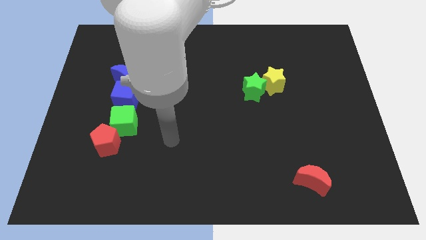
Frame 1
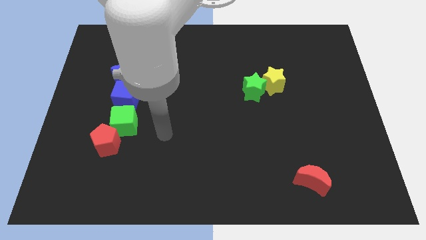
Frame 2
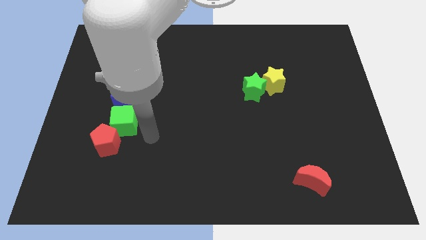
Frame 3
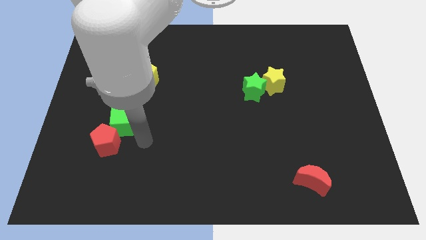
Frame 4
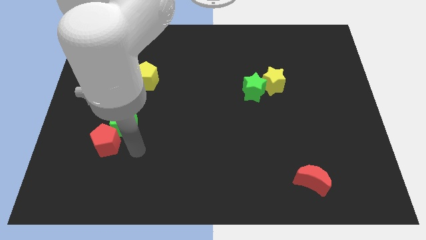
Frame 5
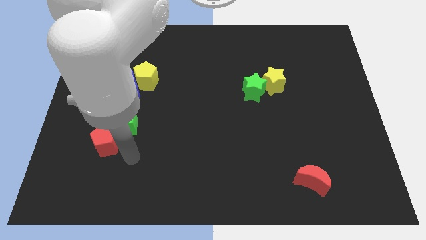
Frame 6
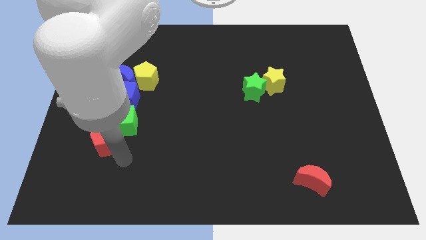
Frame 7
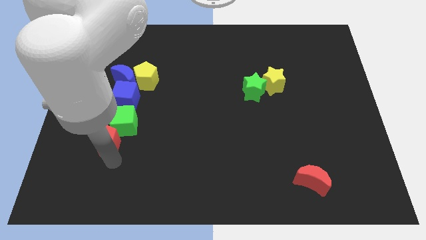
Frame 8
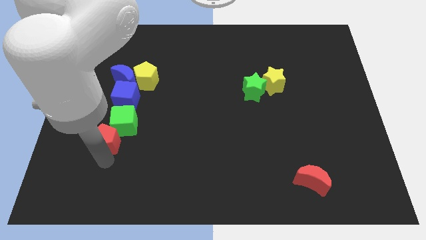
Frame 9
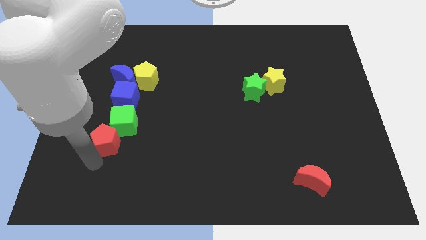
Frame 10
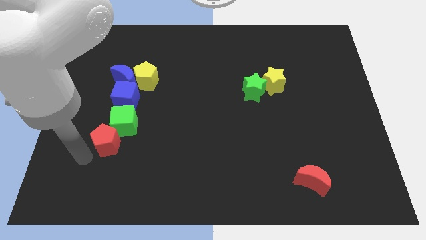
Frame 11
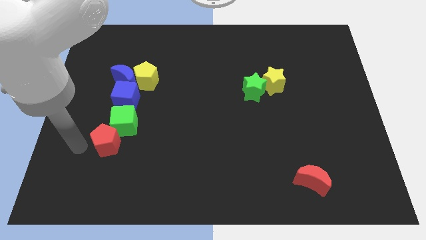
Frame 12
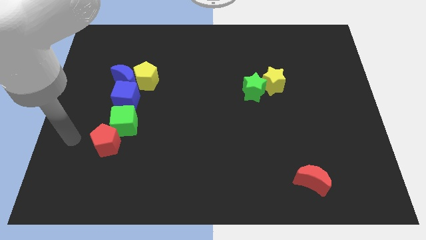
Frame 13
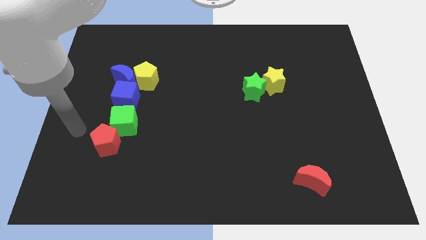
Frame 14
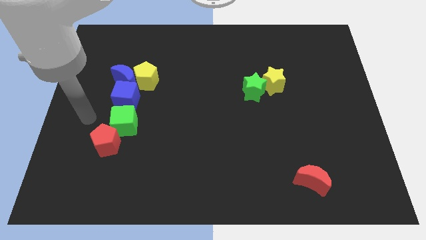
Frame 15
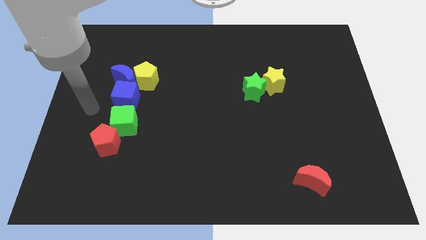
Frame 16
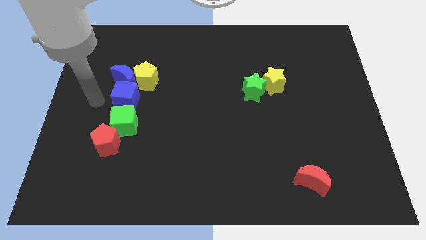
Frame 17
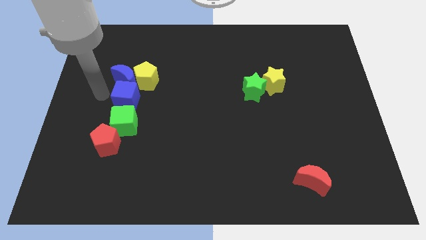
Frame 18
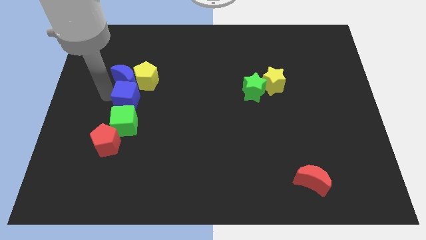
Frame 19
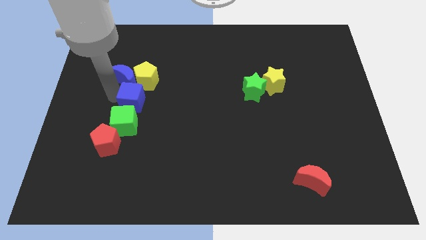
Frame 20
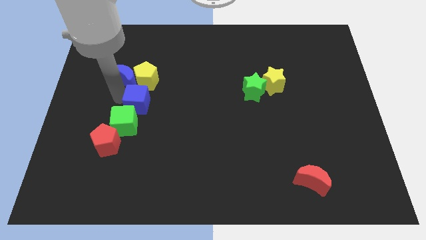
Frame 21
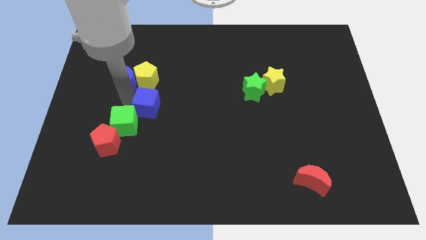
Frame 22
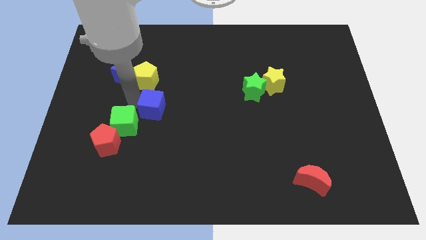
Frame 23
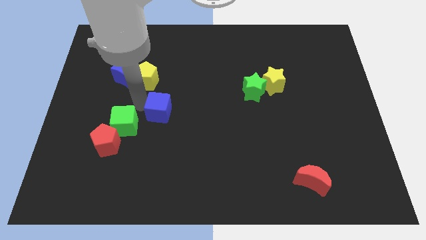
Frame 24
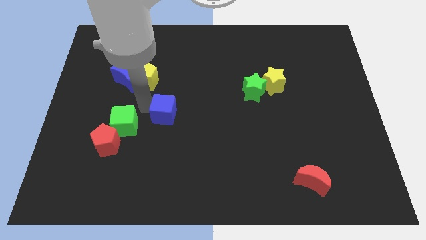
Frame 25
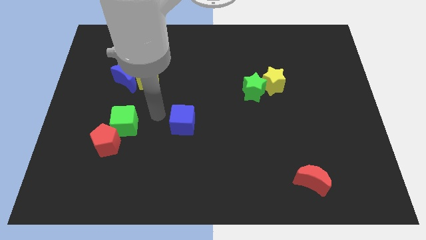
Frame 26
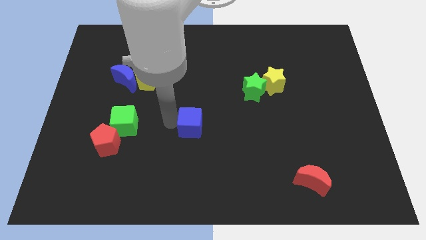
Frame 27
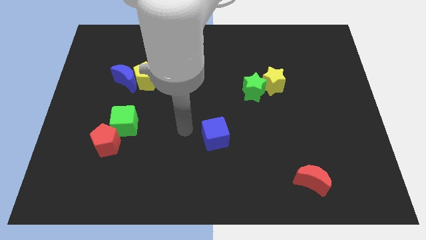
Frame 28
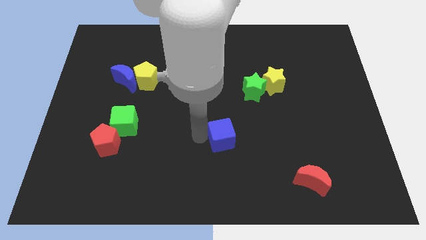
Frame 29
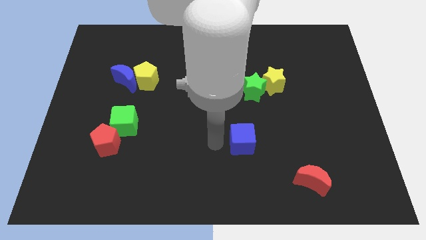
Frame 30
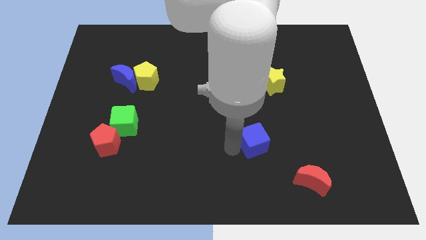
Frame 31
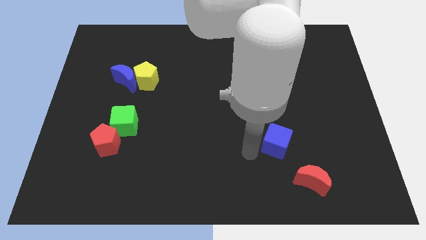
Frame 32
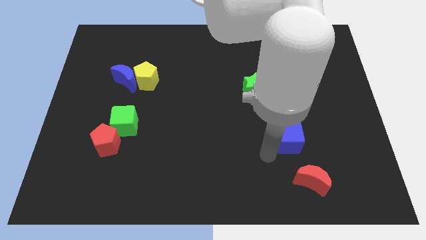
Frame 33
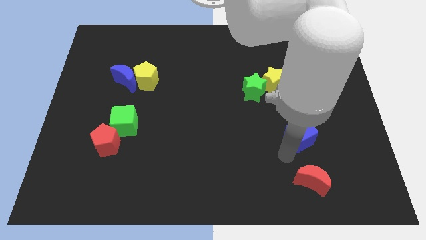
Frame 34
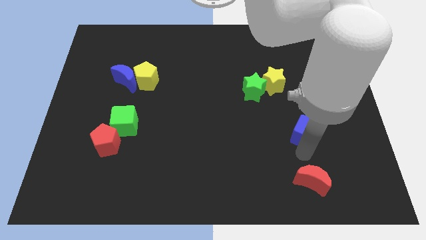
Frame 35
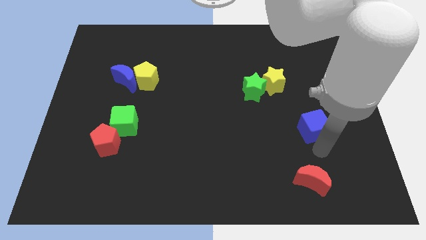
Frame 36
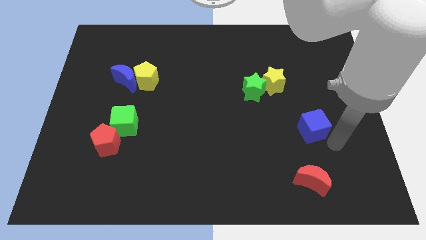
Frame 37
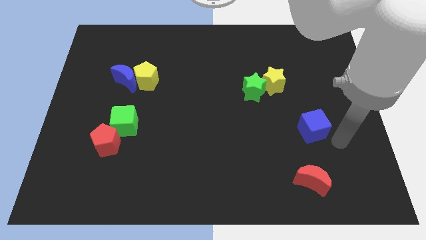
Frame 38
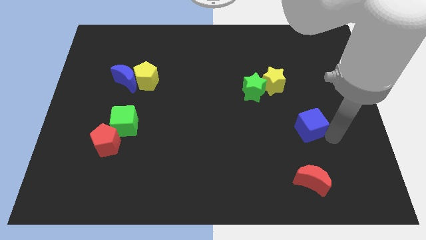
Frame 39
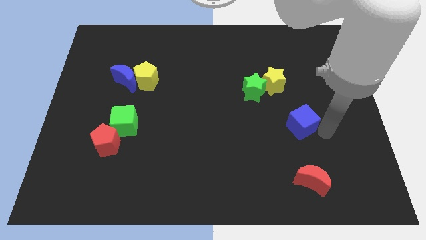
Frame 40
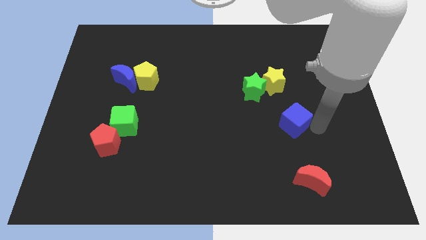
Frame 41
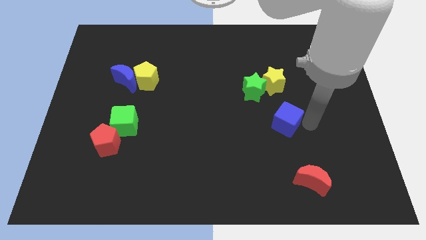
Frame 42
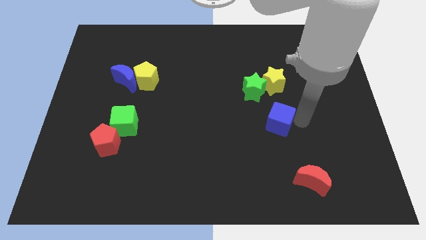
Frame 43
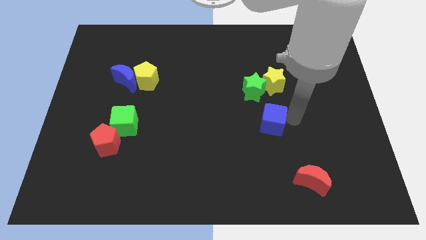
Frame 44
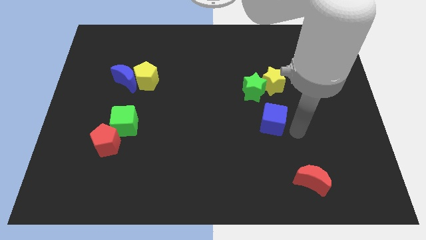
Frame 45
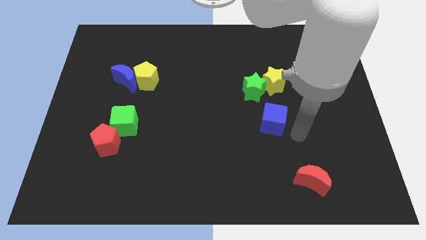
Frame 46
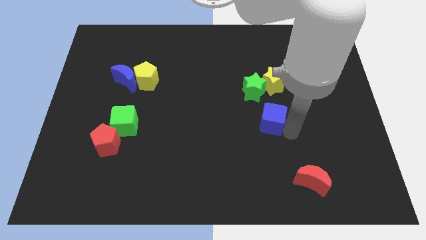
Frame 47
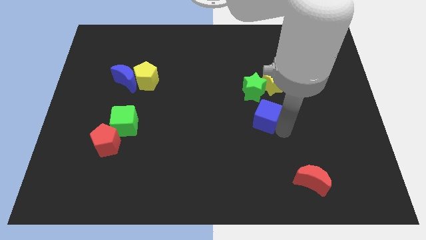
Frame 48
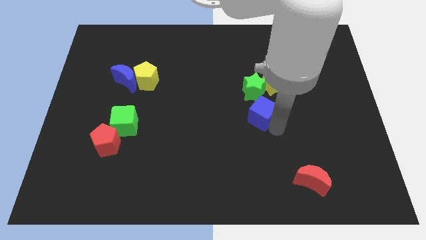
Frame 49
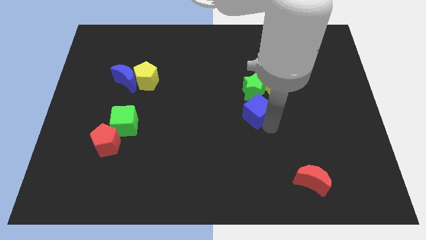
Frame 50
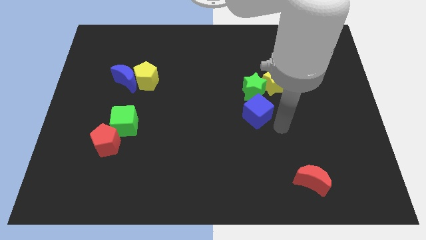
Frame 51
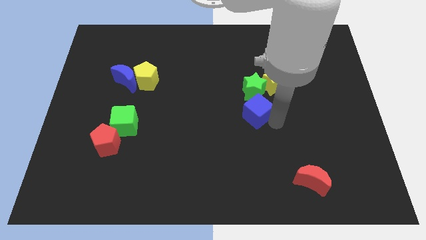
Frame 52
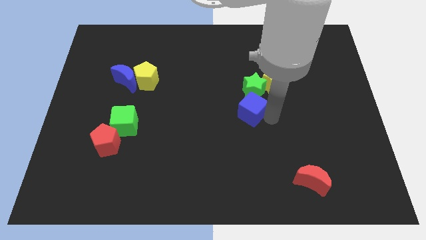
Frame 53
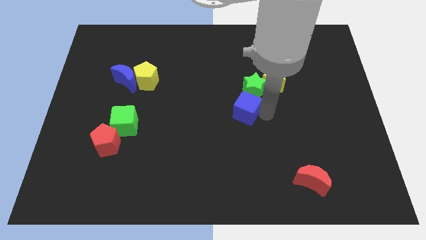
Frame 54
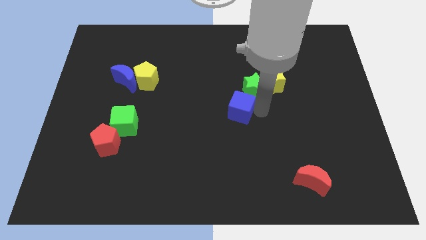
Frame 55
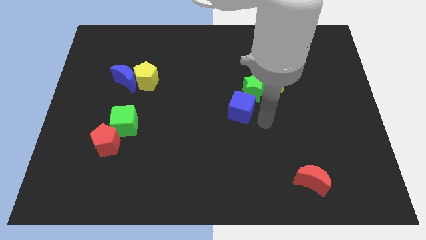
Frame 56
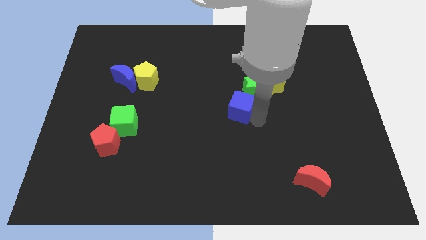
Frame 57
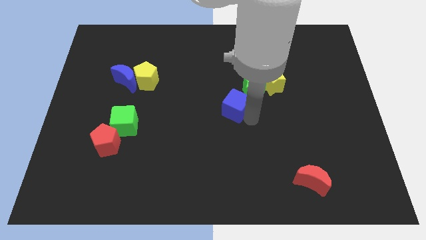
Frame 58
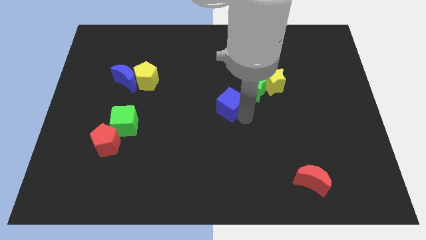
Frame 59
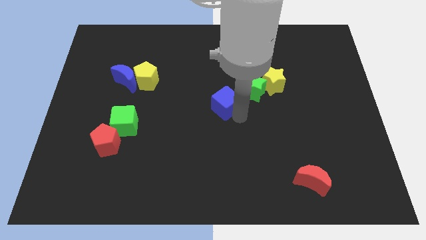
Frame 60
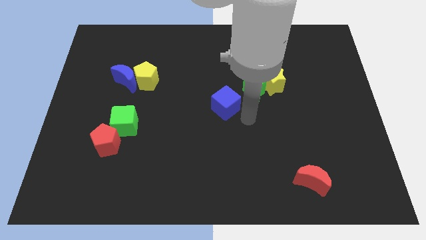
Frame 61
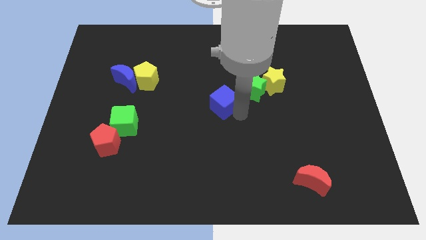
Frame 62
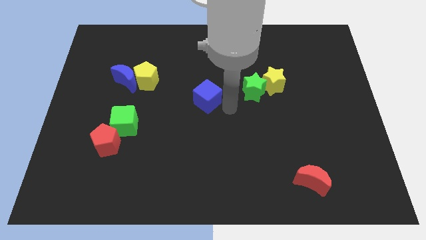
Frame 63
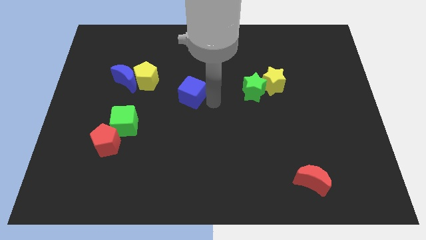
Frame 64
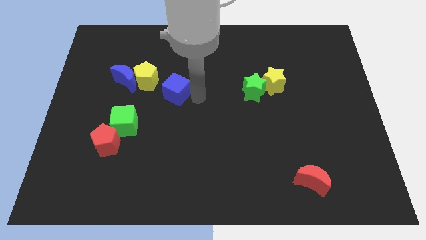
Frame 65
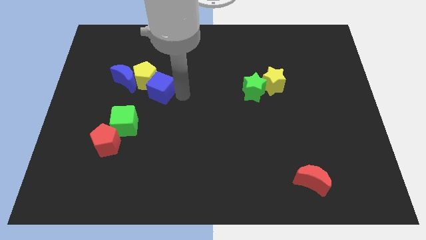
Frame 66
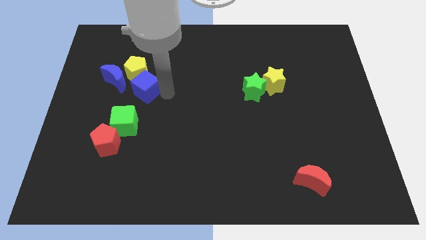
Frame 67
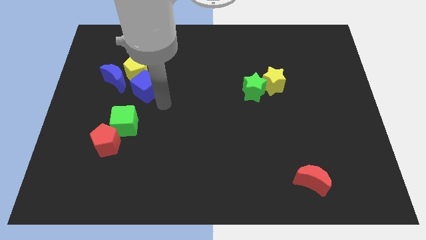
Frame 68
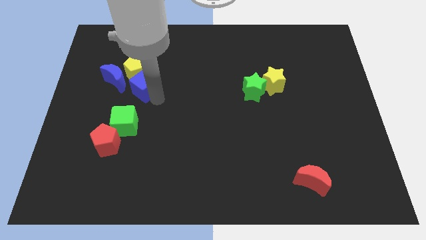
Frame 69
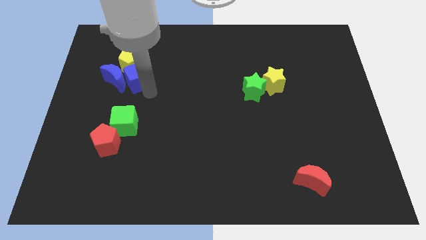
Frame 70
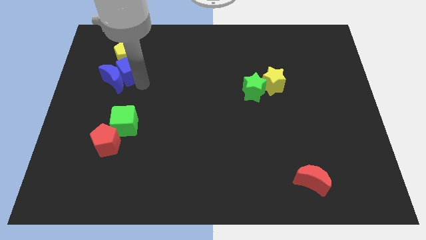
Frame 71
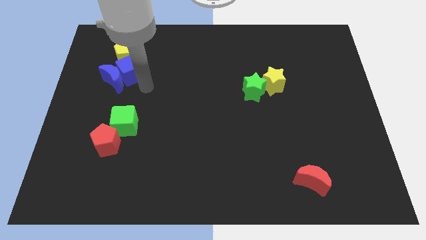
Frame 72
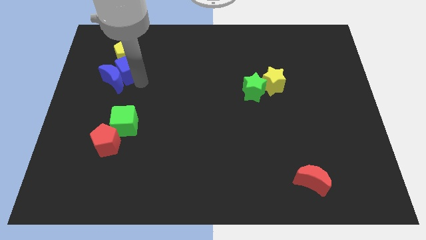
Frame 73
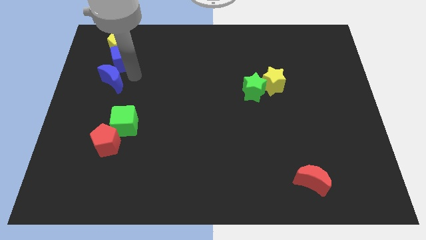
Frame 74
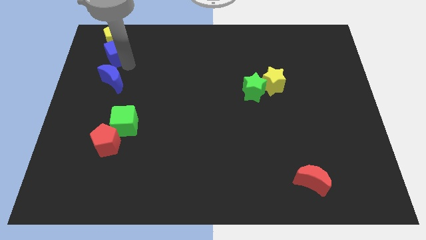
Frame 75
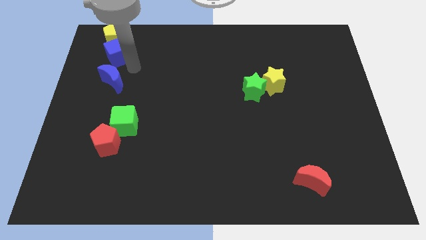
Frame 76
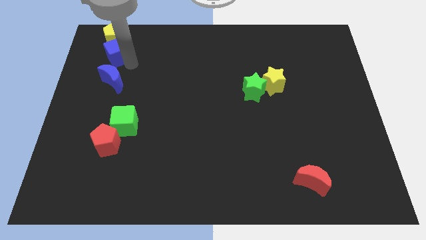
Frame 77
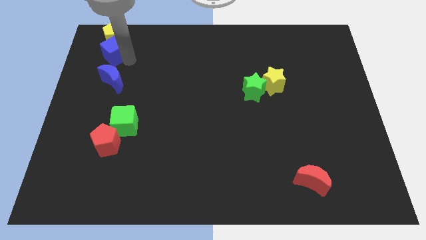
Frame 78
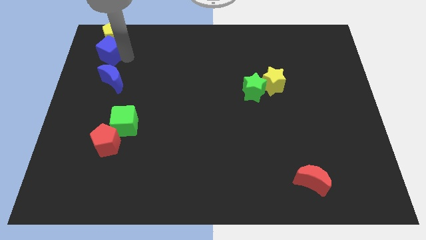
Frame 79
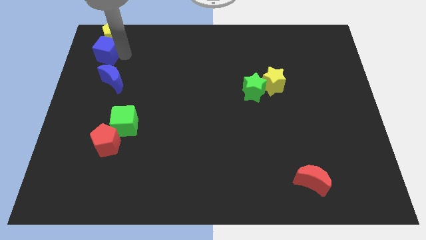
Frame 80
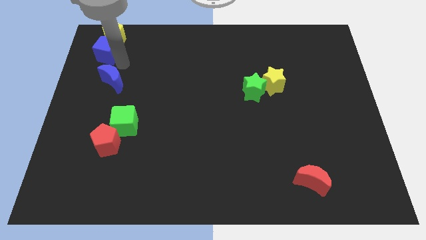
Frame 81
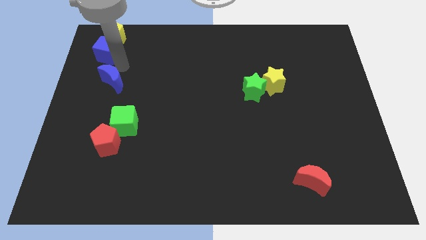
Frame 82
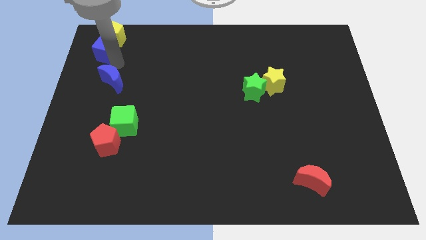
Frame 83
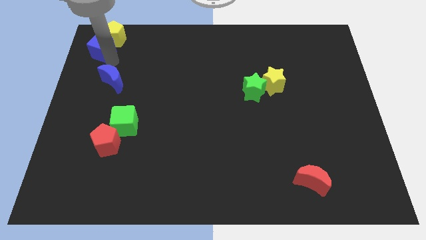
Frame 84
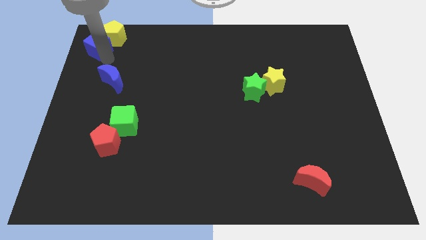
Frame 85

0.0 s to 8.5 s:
slide the blue cube to the top left of the board
